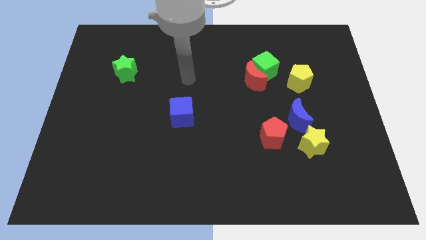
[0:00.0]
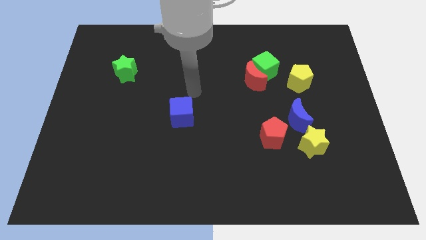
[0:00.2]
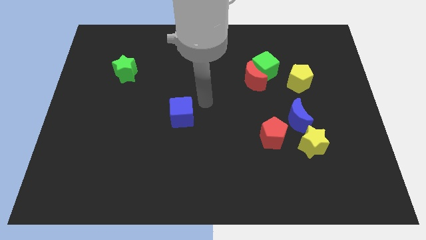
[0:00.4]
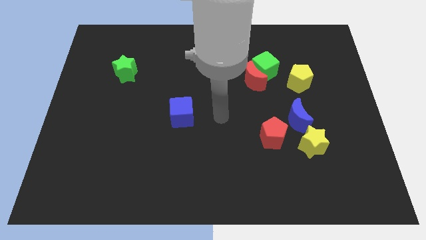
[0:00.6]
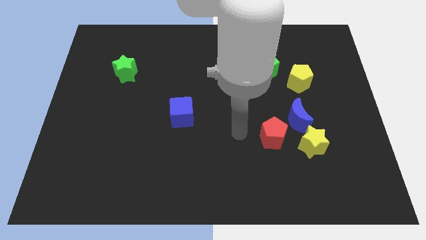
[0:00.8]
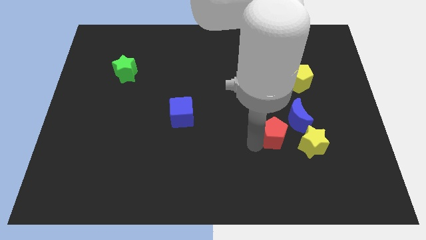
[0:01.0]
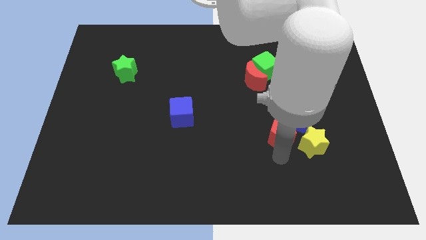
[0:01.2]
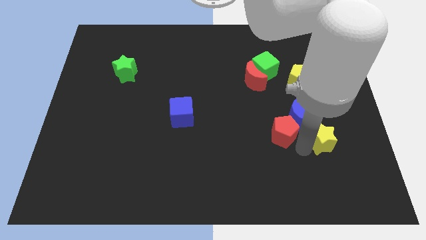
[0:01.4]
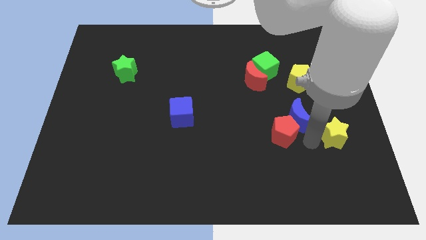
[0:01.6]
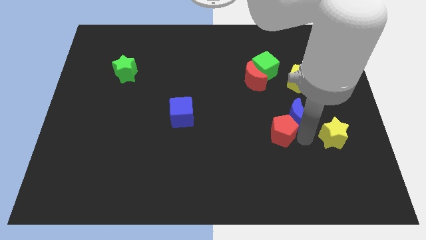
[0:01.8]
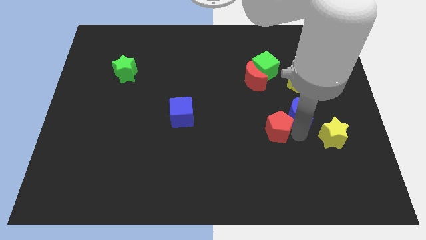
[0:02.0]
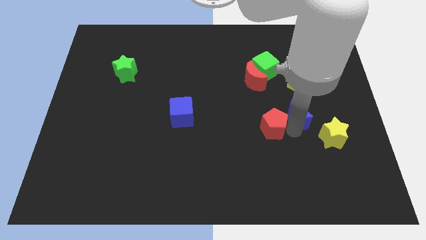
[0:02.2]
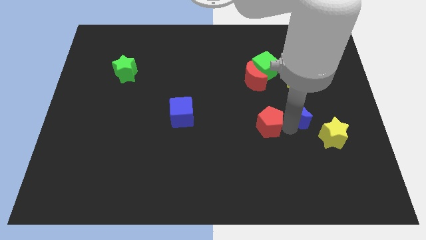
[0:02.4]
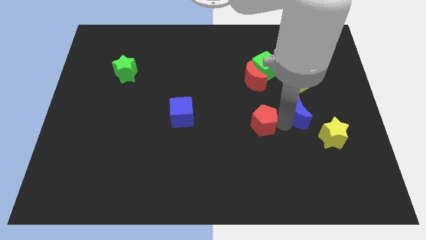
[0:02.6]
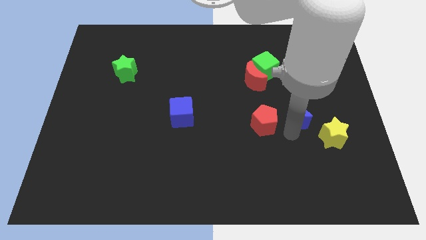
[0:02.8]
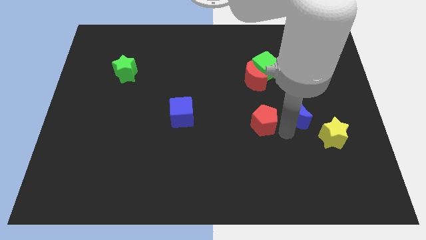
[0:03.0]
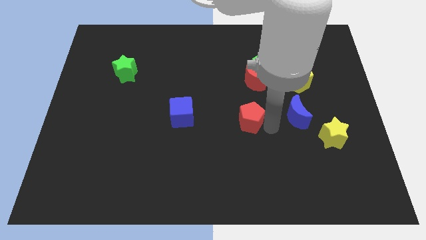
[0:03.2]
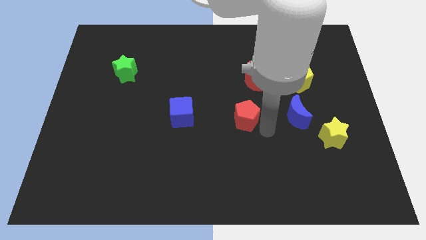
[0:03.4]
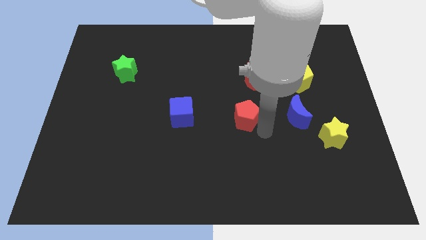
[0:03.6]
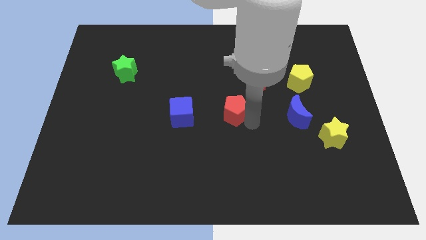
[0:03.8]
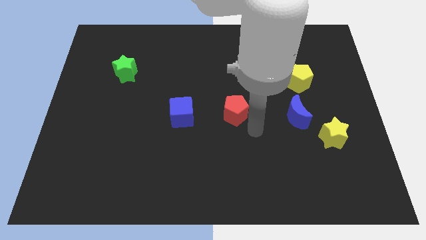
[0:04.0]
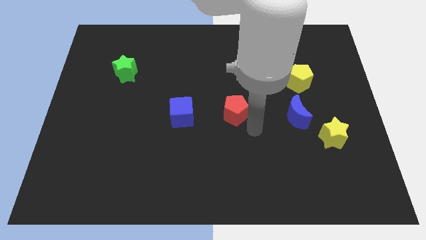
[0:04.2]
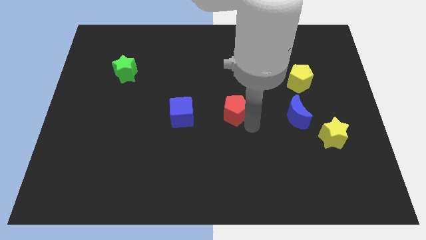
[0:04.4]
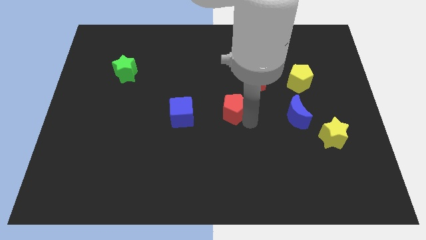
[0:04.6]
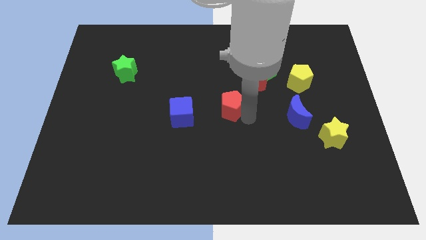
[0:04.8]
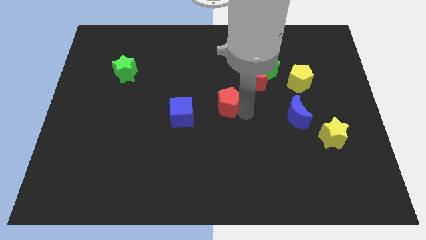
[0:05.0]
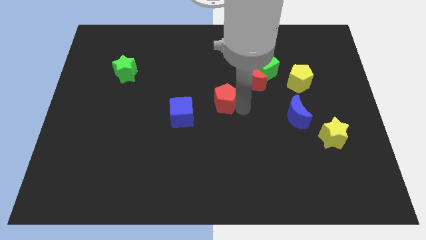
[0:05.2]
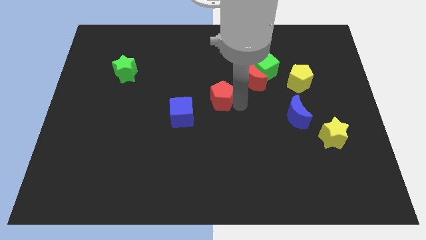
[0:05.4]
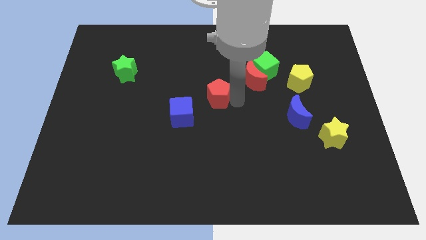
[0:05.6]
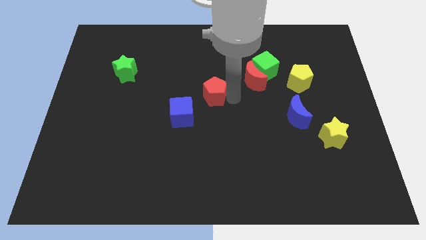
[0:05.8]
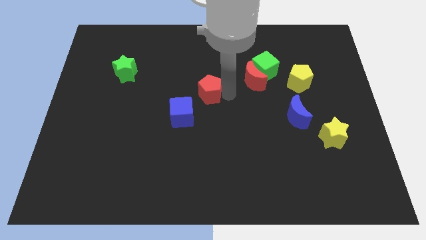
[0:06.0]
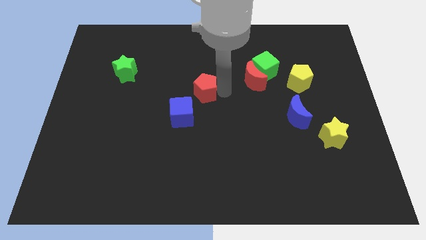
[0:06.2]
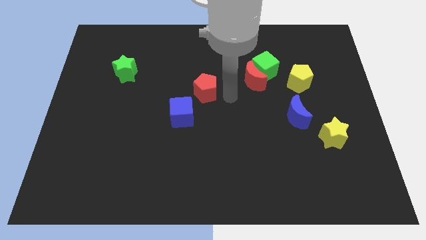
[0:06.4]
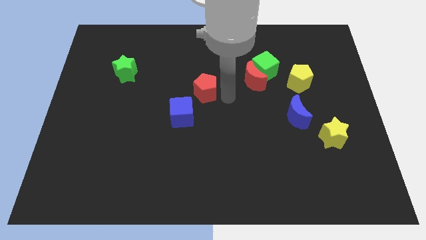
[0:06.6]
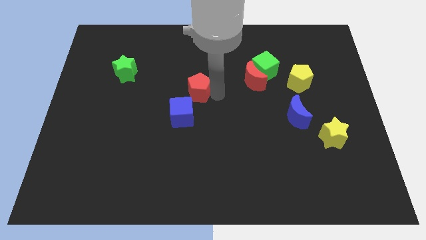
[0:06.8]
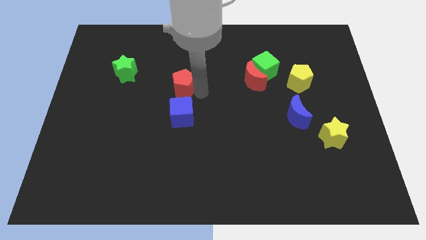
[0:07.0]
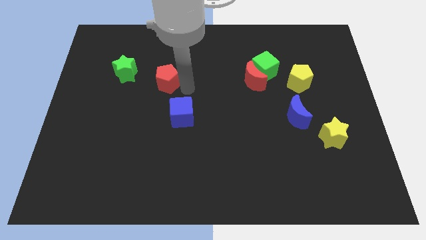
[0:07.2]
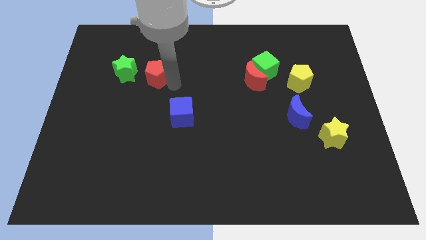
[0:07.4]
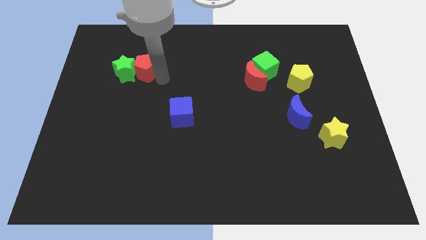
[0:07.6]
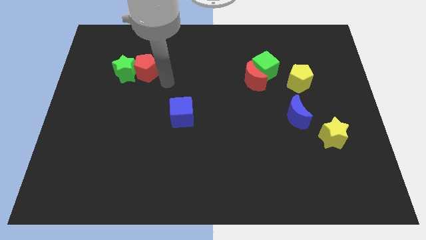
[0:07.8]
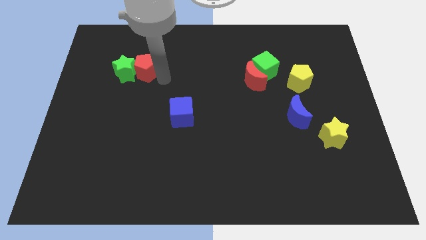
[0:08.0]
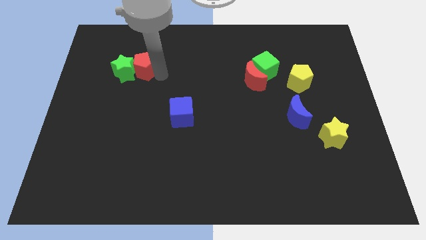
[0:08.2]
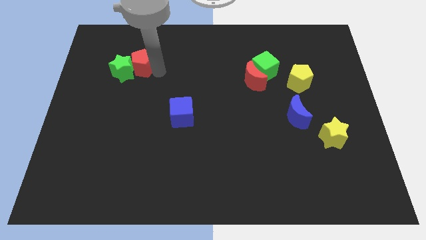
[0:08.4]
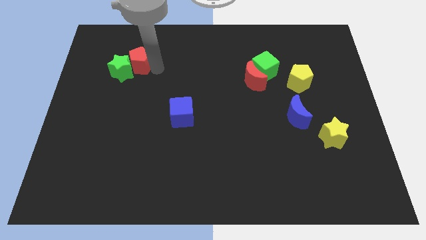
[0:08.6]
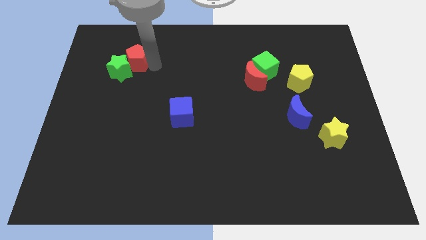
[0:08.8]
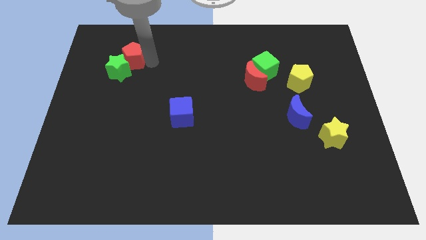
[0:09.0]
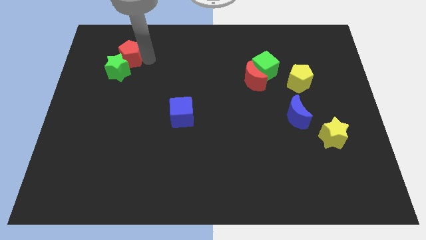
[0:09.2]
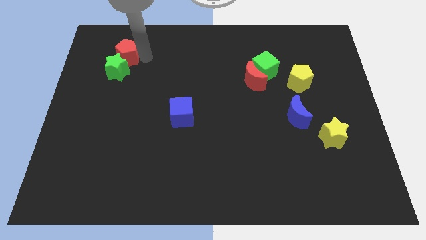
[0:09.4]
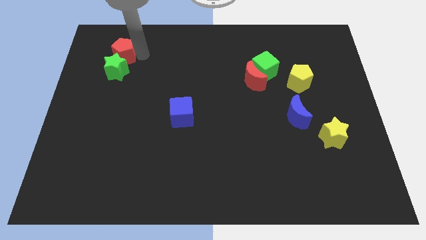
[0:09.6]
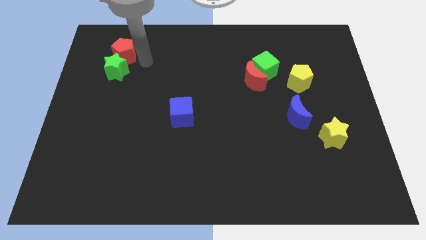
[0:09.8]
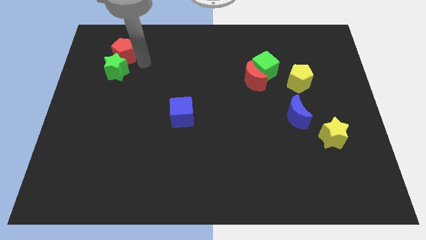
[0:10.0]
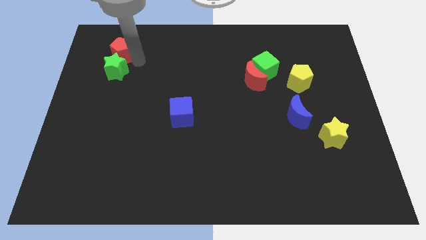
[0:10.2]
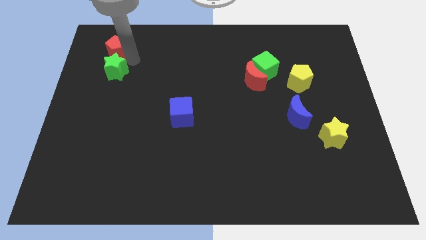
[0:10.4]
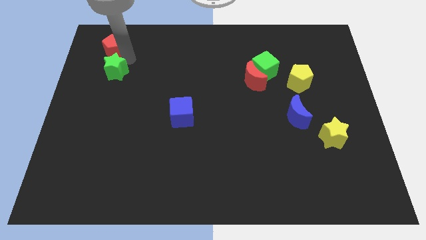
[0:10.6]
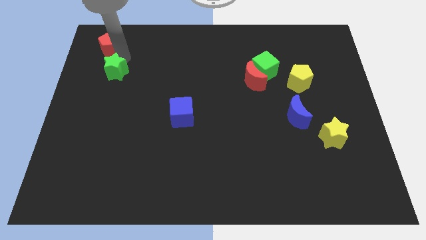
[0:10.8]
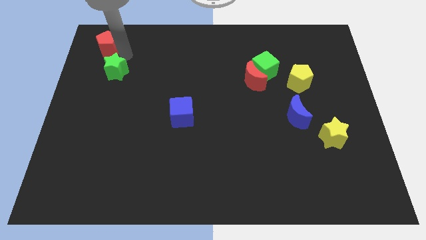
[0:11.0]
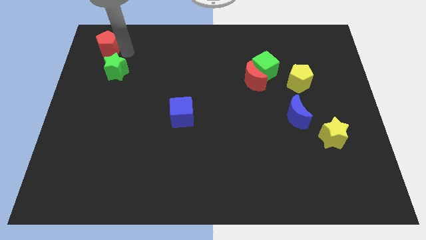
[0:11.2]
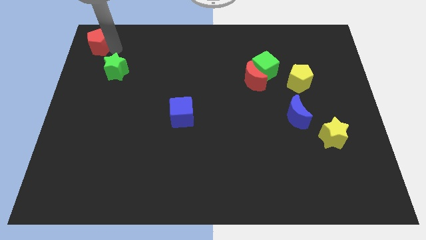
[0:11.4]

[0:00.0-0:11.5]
move the red pentagon to the upper left corner

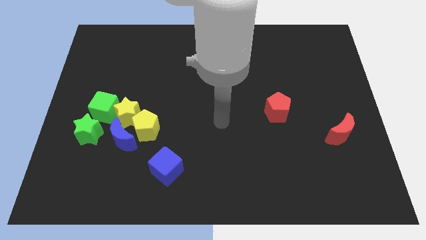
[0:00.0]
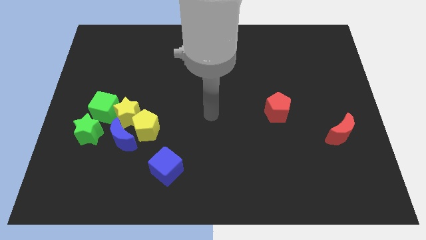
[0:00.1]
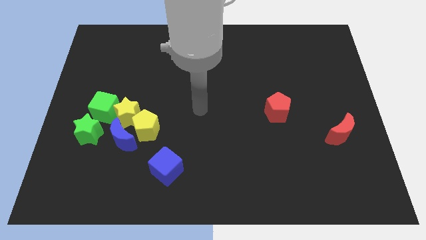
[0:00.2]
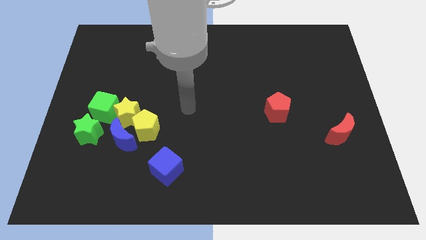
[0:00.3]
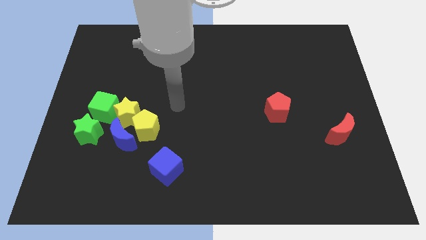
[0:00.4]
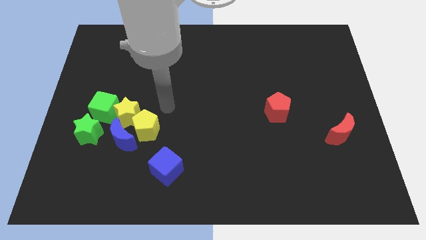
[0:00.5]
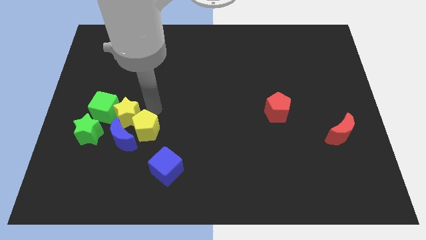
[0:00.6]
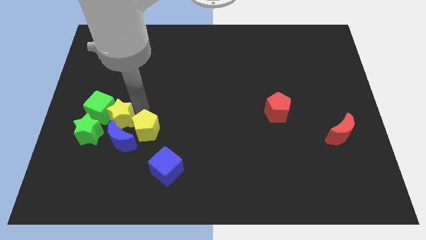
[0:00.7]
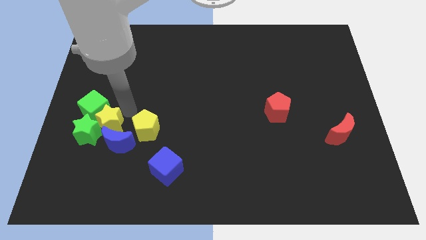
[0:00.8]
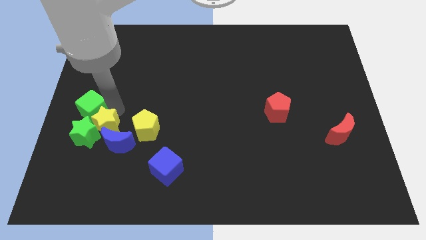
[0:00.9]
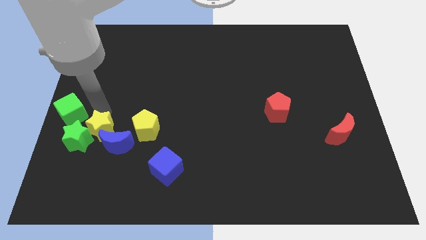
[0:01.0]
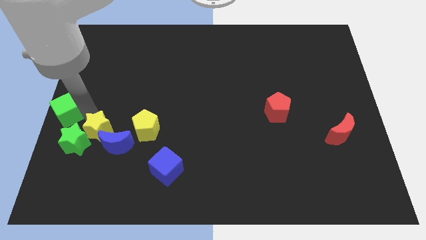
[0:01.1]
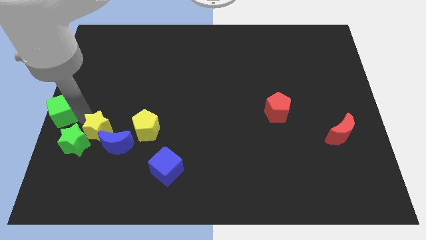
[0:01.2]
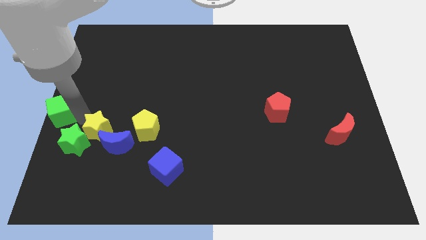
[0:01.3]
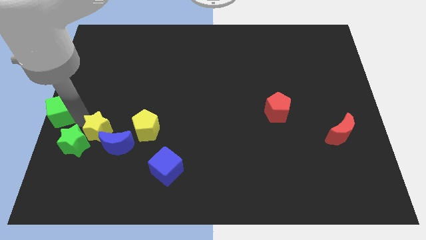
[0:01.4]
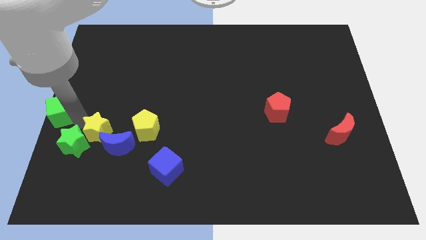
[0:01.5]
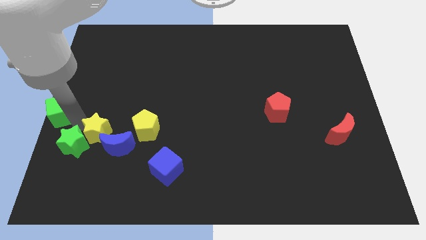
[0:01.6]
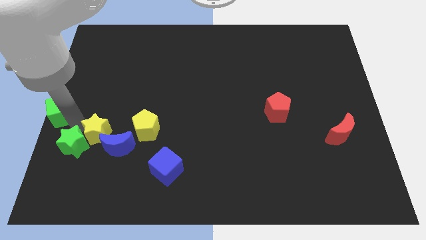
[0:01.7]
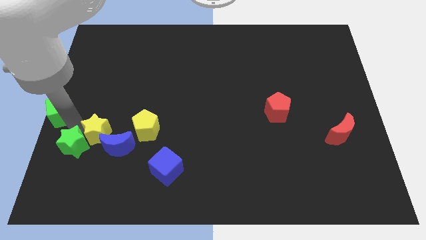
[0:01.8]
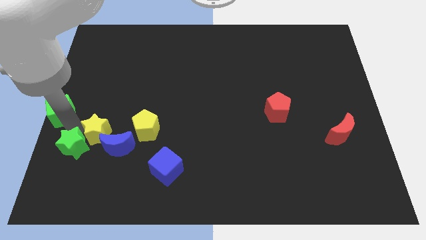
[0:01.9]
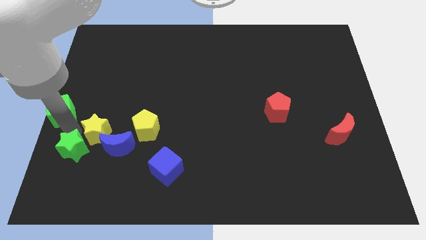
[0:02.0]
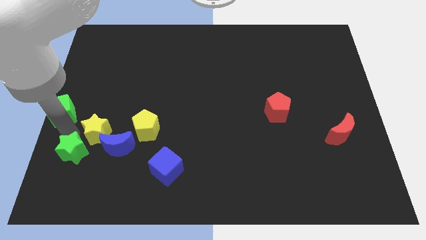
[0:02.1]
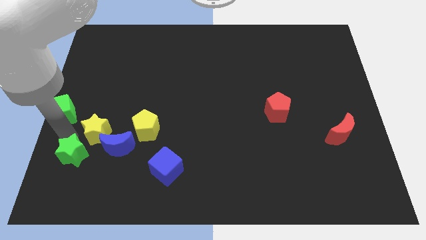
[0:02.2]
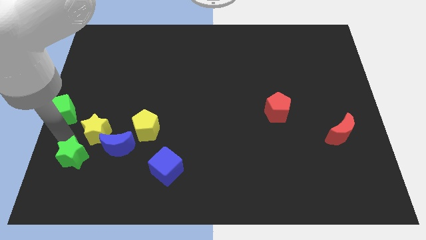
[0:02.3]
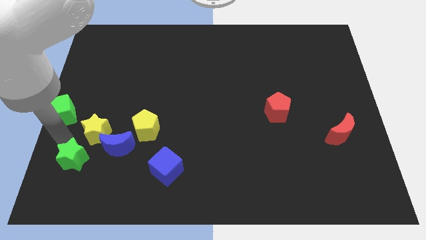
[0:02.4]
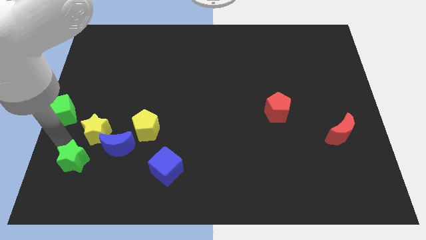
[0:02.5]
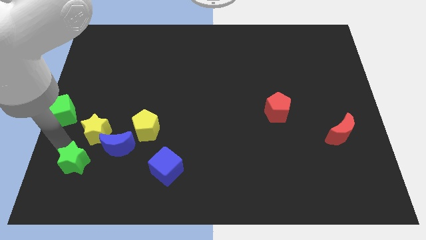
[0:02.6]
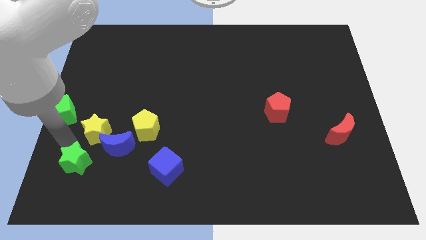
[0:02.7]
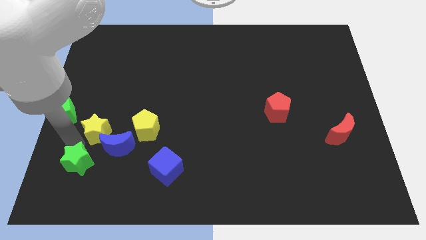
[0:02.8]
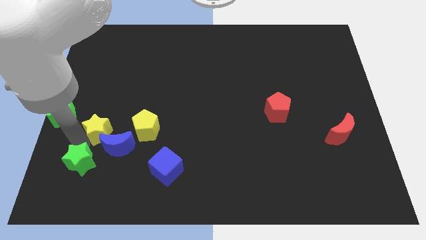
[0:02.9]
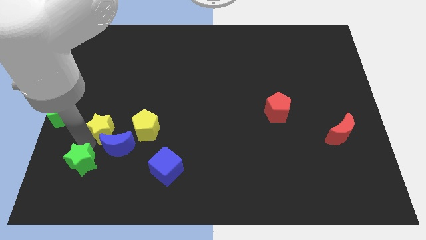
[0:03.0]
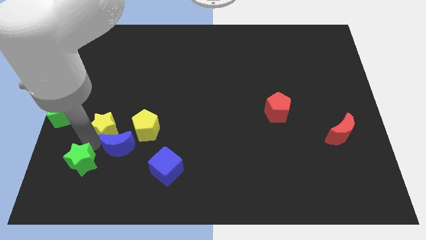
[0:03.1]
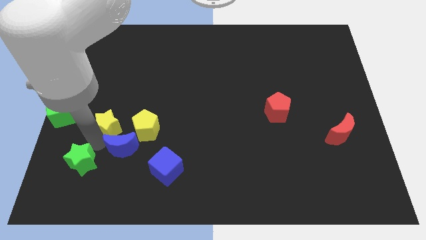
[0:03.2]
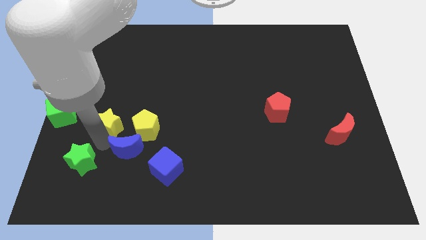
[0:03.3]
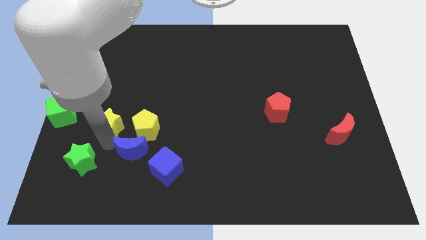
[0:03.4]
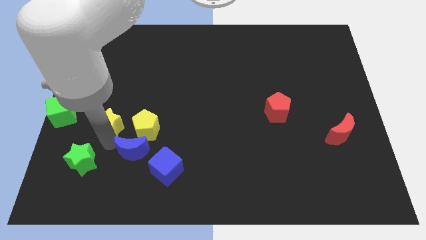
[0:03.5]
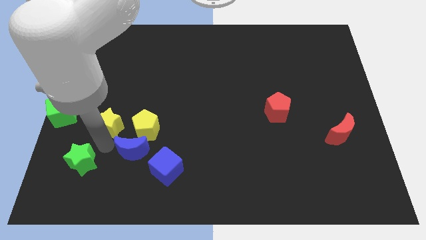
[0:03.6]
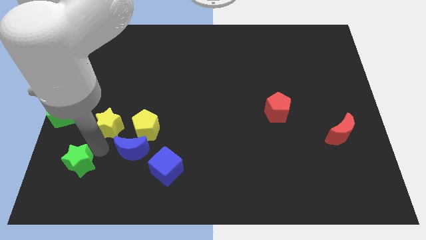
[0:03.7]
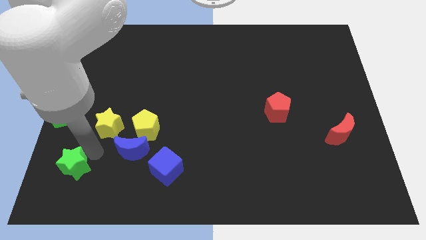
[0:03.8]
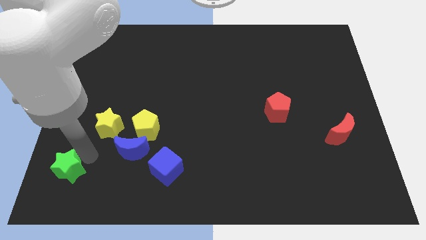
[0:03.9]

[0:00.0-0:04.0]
push the green star to the bottom left corner
